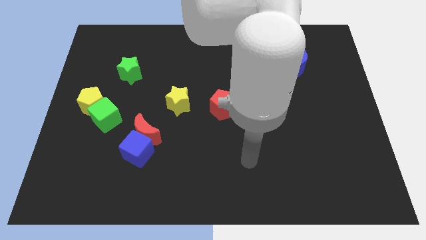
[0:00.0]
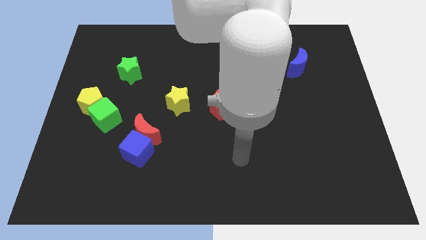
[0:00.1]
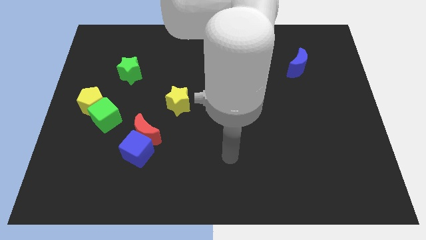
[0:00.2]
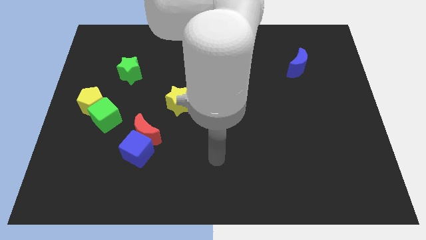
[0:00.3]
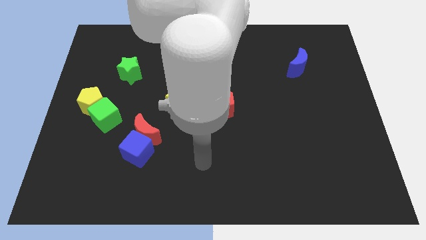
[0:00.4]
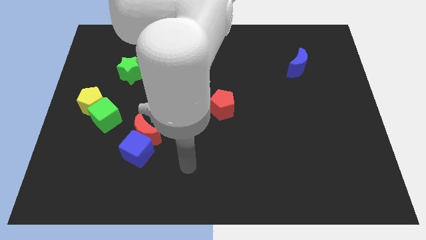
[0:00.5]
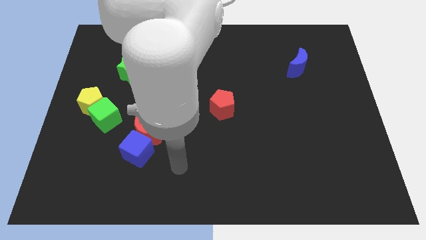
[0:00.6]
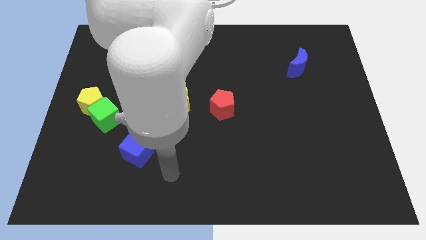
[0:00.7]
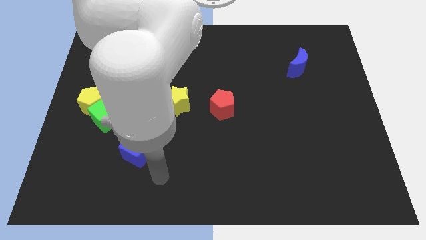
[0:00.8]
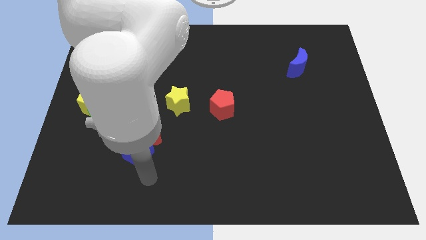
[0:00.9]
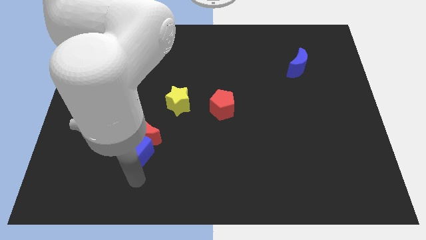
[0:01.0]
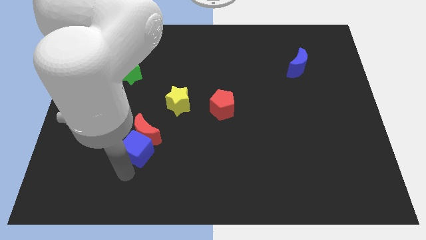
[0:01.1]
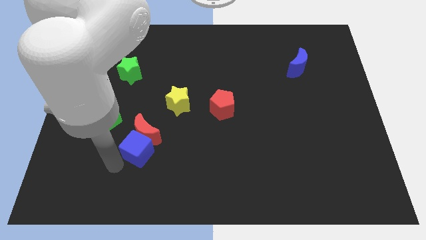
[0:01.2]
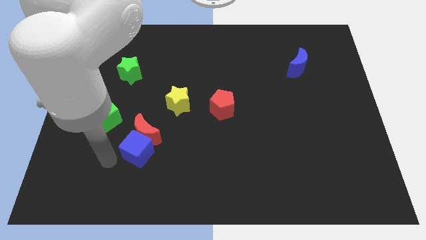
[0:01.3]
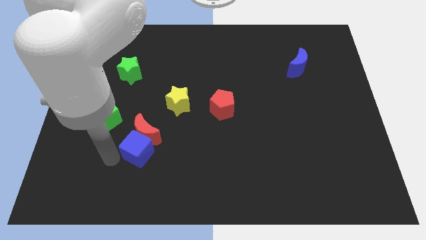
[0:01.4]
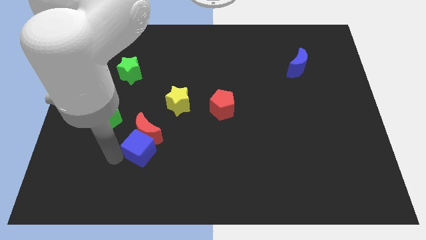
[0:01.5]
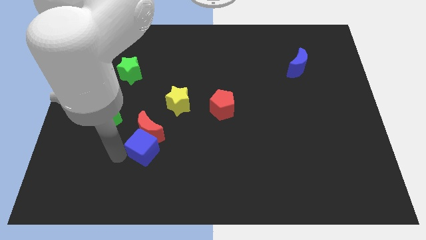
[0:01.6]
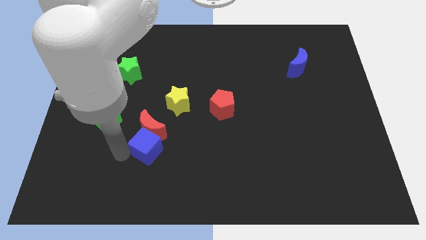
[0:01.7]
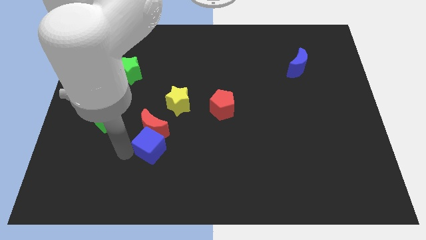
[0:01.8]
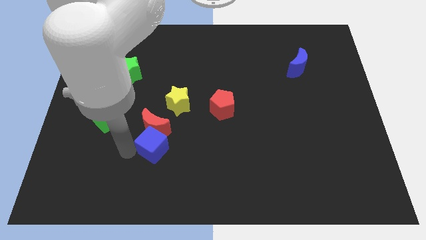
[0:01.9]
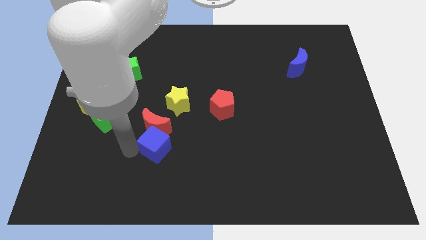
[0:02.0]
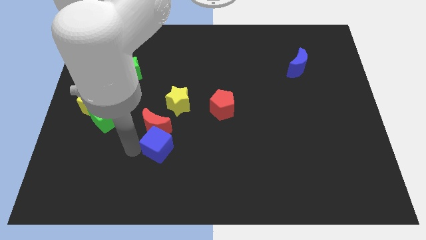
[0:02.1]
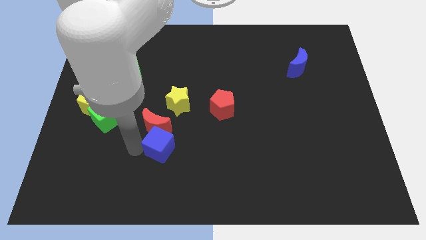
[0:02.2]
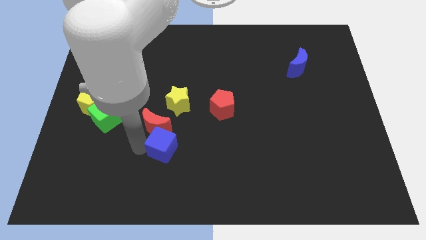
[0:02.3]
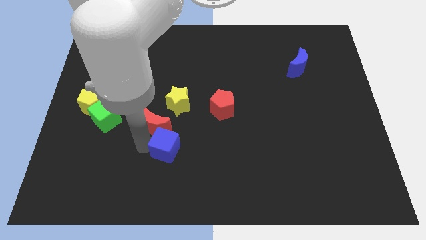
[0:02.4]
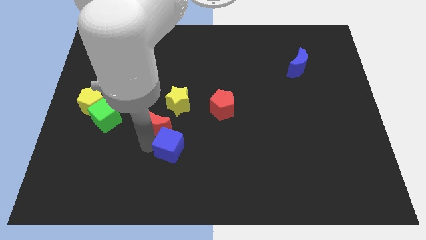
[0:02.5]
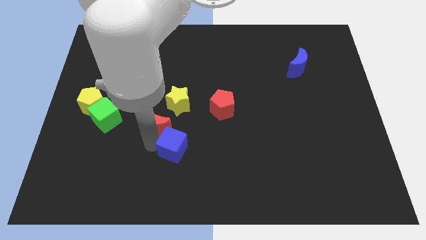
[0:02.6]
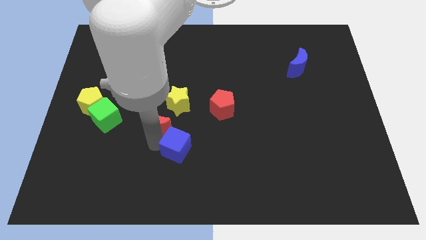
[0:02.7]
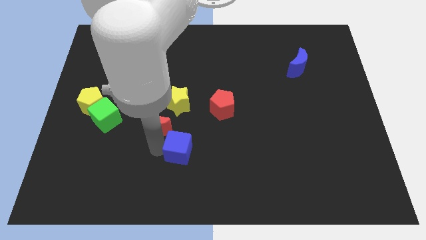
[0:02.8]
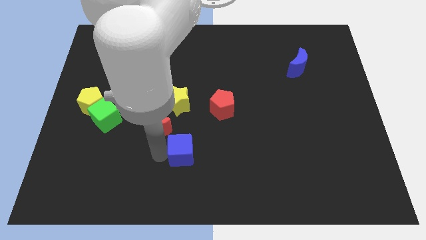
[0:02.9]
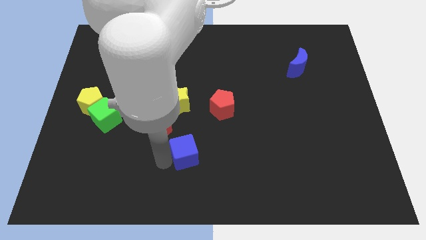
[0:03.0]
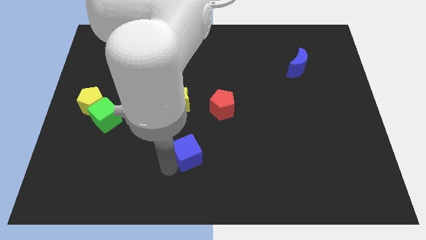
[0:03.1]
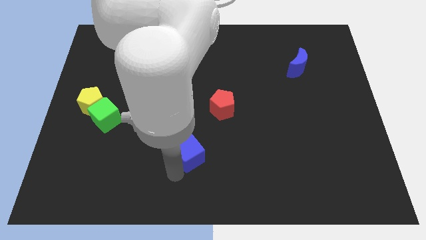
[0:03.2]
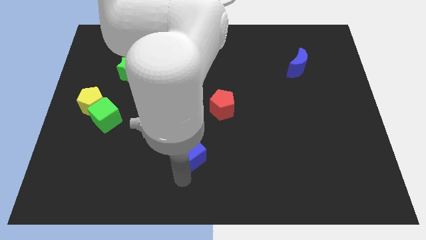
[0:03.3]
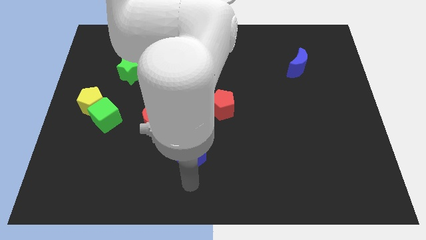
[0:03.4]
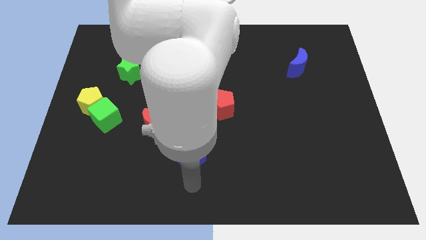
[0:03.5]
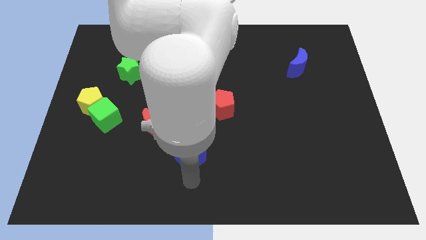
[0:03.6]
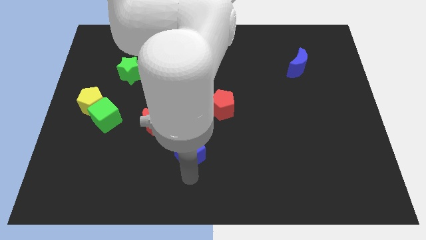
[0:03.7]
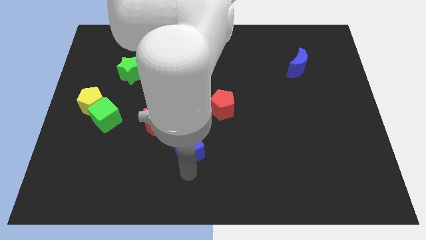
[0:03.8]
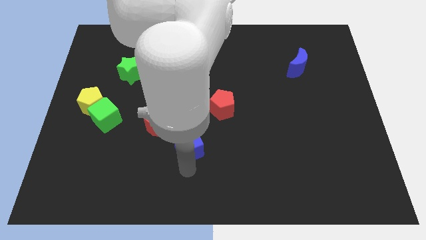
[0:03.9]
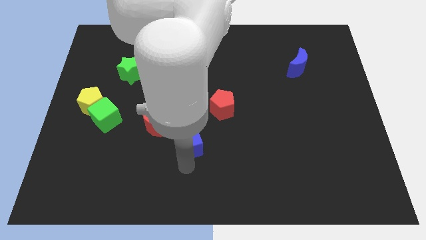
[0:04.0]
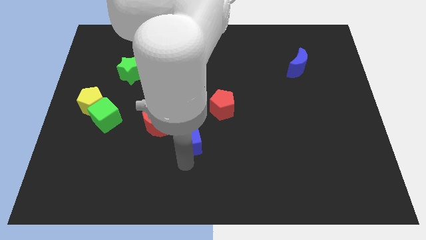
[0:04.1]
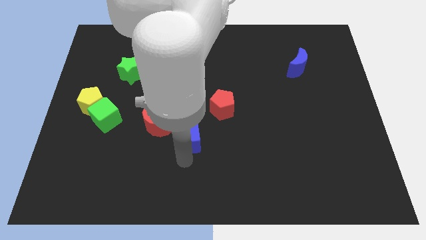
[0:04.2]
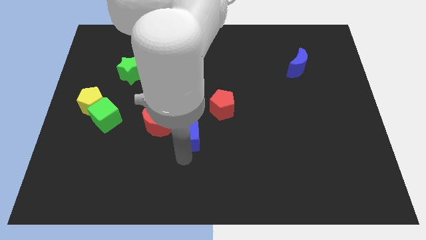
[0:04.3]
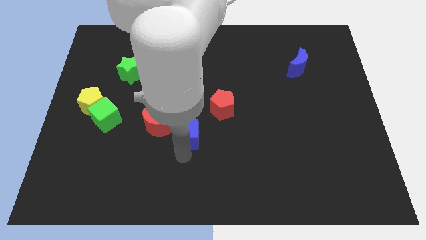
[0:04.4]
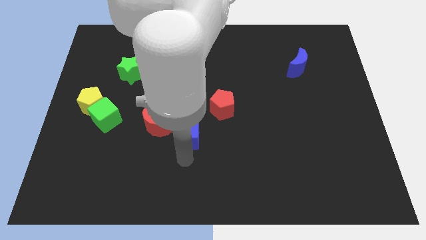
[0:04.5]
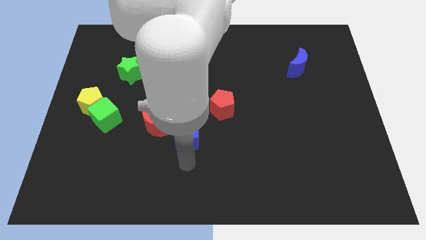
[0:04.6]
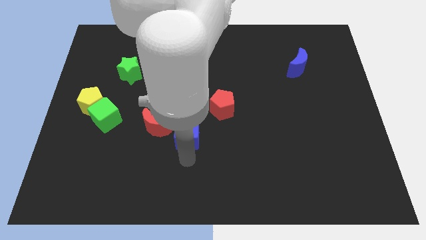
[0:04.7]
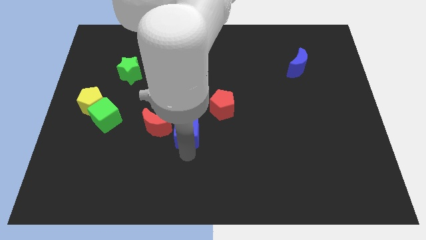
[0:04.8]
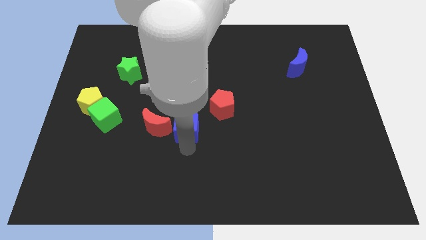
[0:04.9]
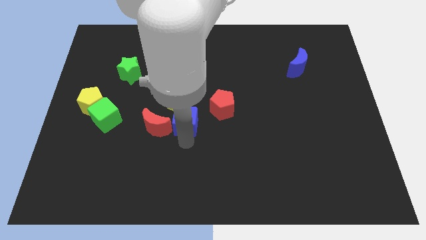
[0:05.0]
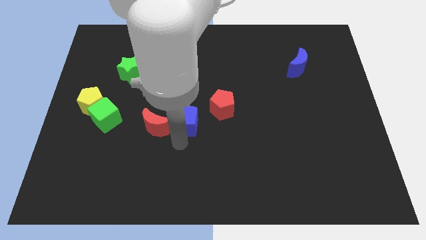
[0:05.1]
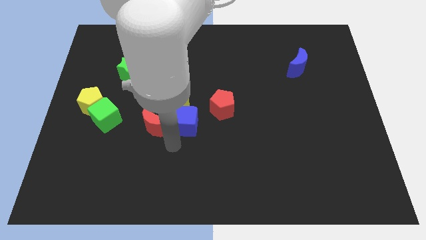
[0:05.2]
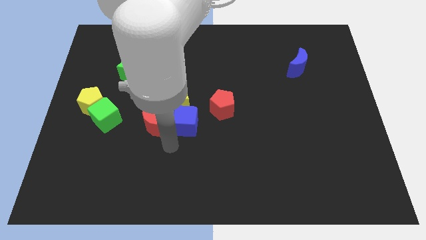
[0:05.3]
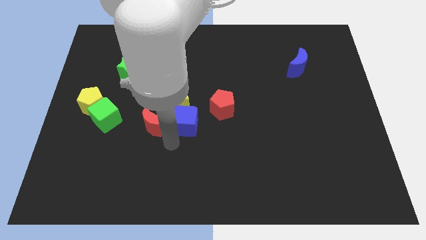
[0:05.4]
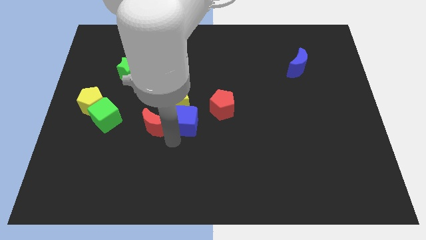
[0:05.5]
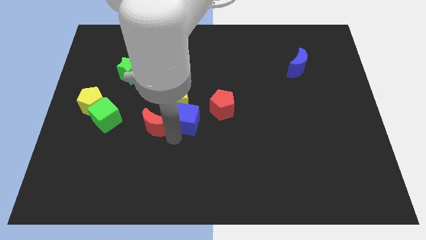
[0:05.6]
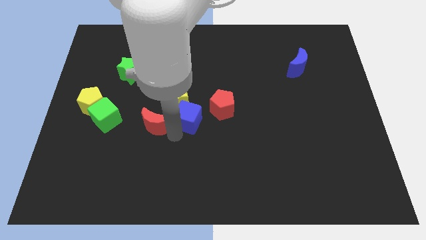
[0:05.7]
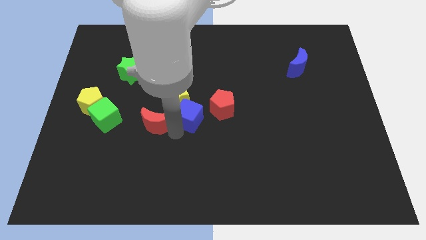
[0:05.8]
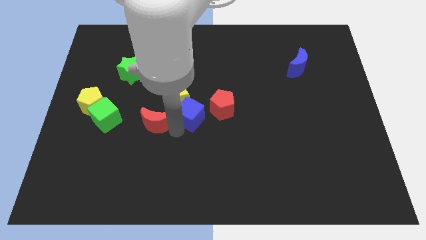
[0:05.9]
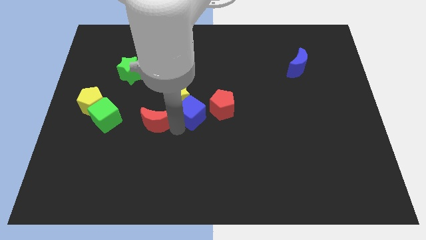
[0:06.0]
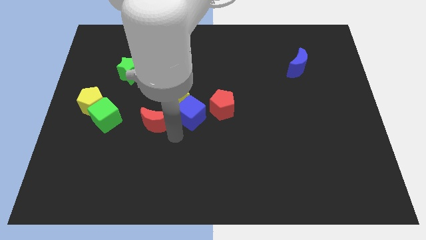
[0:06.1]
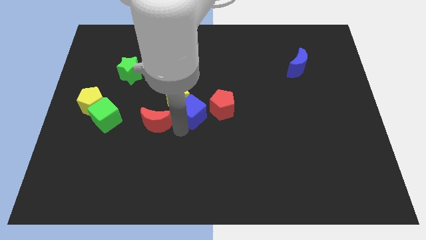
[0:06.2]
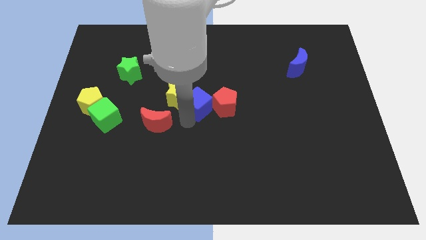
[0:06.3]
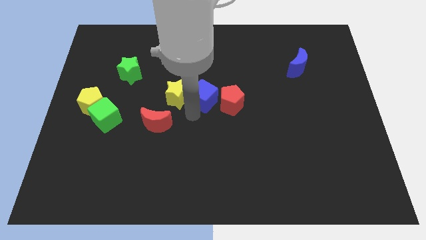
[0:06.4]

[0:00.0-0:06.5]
move the blue cube upwards and then to the right

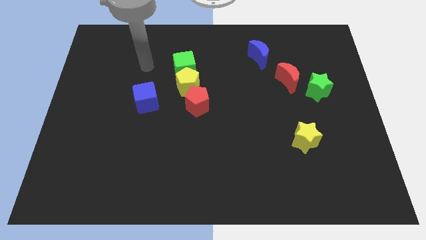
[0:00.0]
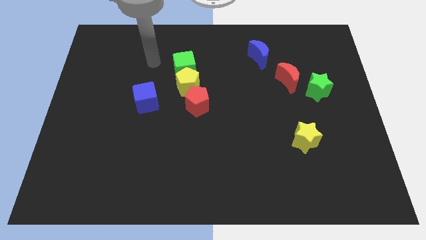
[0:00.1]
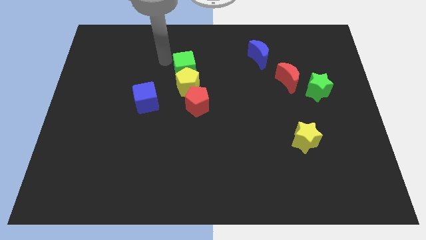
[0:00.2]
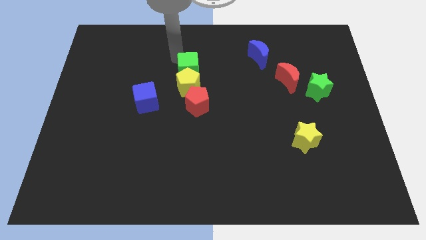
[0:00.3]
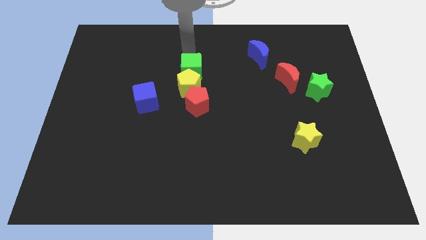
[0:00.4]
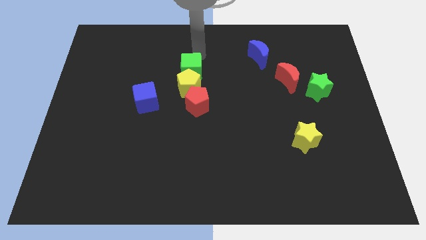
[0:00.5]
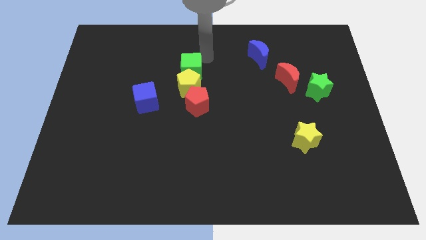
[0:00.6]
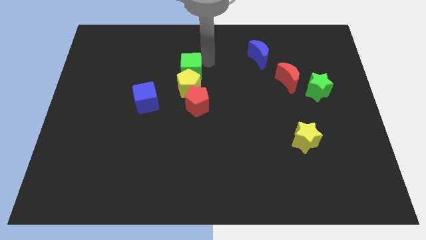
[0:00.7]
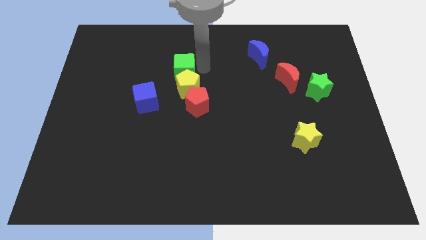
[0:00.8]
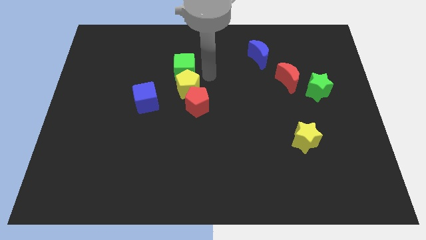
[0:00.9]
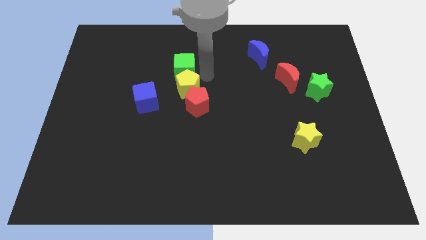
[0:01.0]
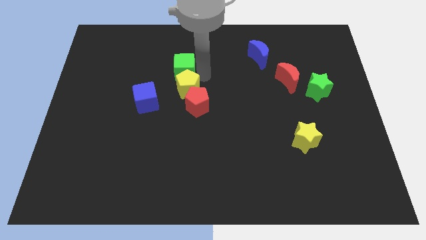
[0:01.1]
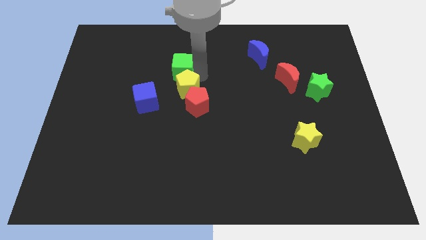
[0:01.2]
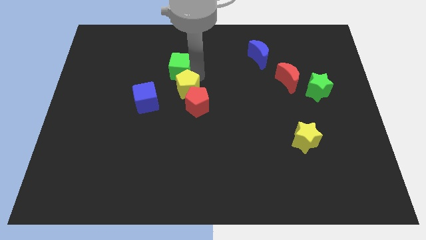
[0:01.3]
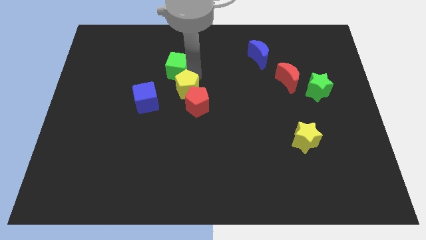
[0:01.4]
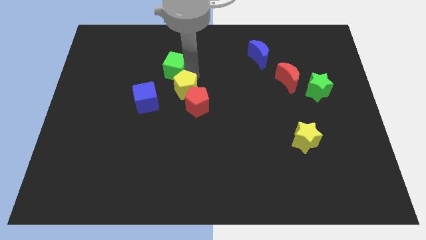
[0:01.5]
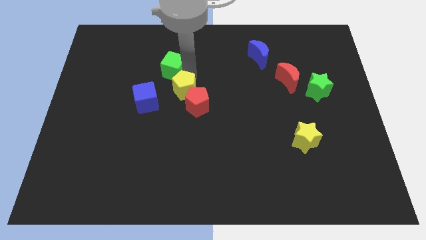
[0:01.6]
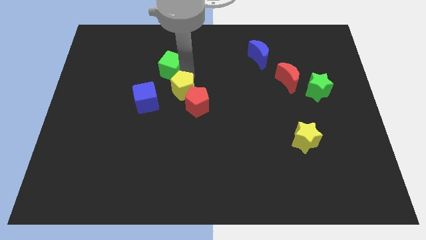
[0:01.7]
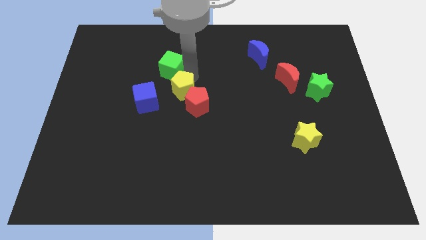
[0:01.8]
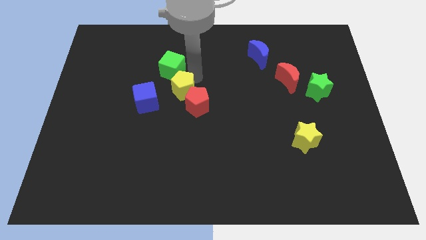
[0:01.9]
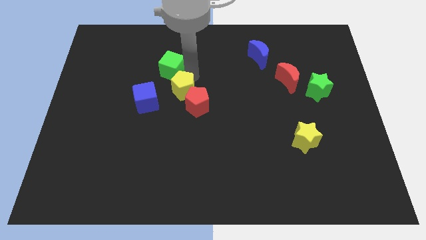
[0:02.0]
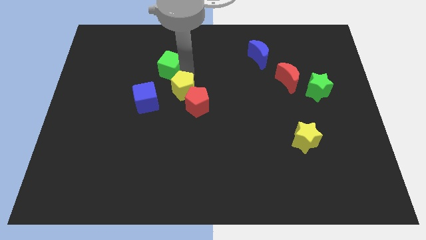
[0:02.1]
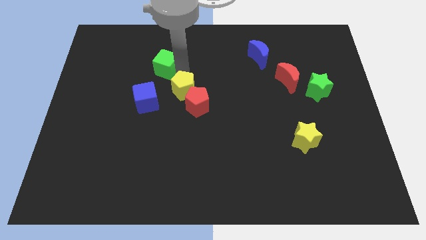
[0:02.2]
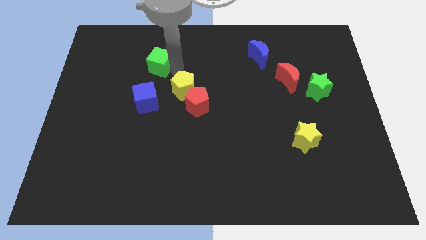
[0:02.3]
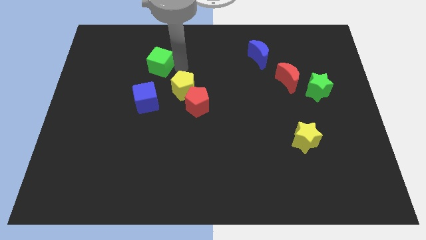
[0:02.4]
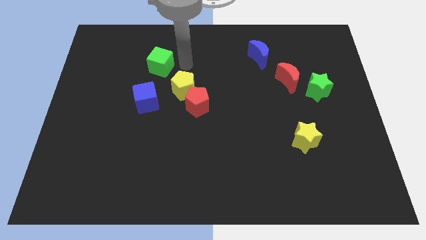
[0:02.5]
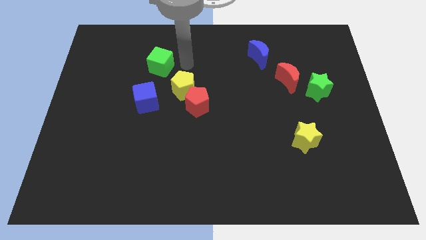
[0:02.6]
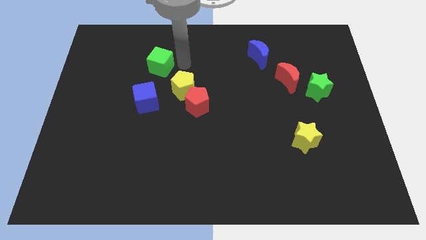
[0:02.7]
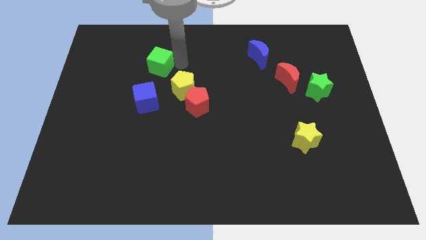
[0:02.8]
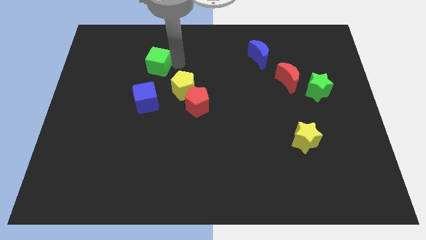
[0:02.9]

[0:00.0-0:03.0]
move the green cube somewhat left
